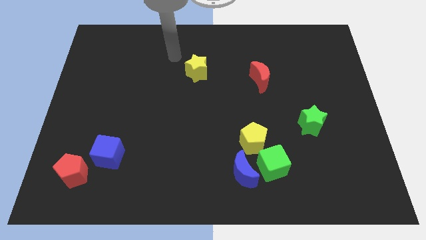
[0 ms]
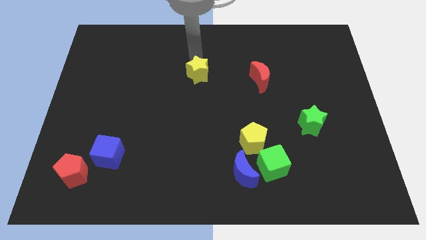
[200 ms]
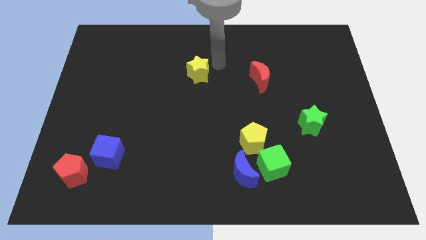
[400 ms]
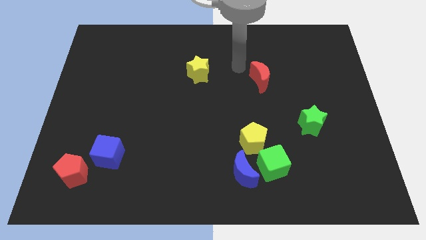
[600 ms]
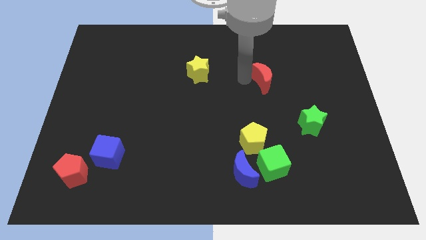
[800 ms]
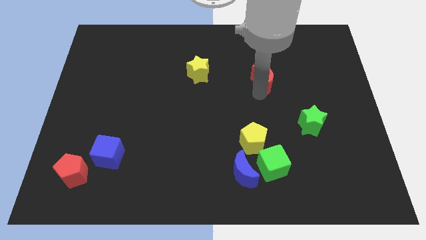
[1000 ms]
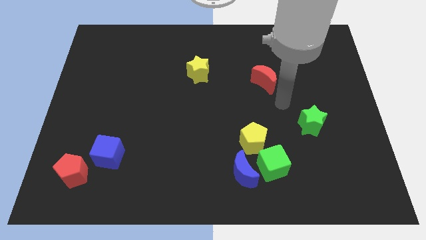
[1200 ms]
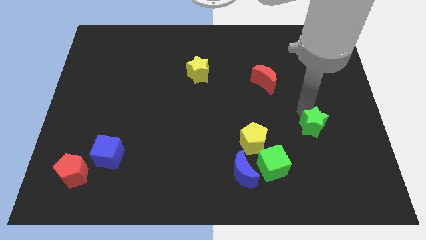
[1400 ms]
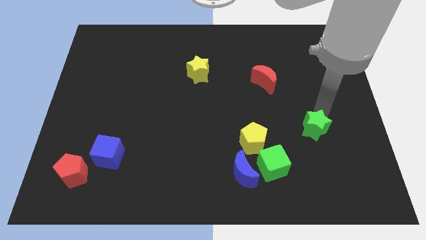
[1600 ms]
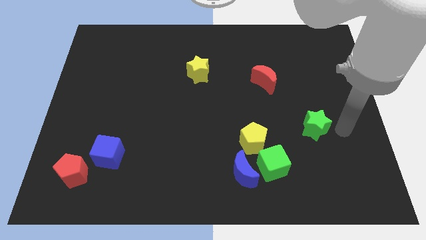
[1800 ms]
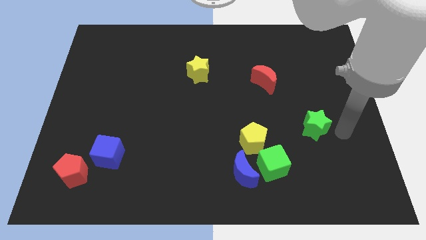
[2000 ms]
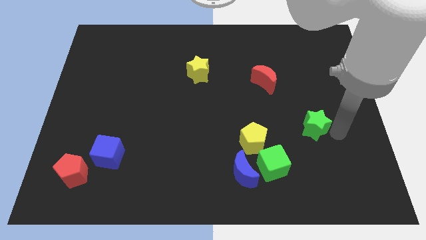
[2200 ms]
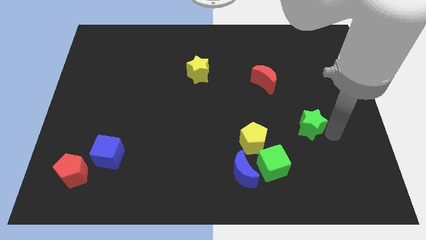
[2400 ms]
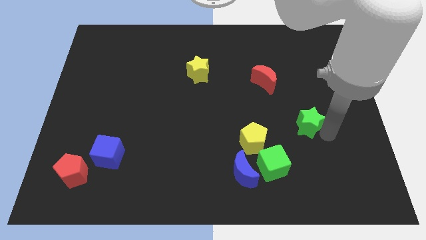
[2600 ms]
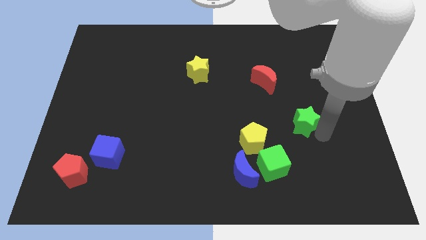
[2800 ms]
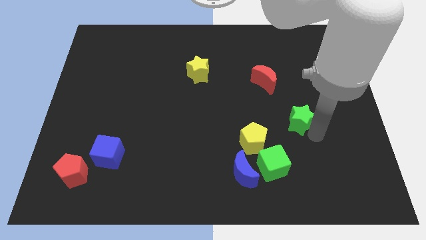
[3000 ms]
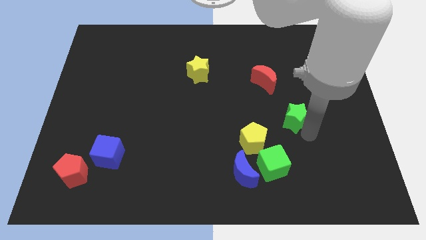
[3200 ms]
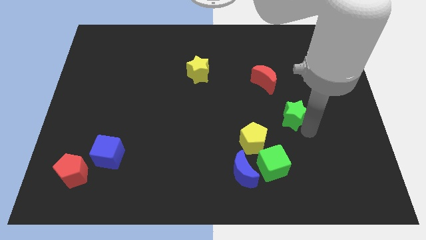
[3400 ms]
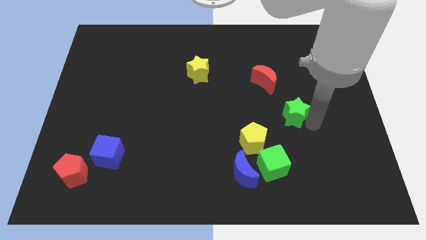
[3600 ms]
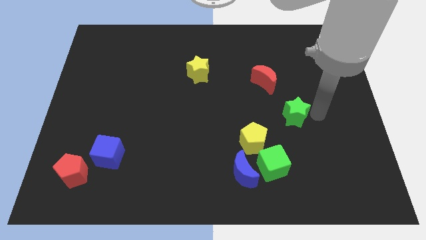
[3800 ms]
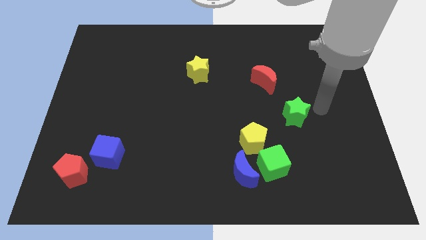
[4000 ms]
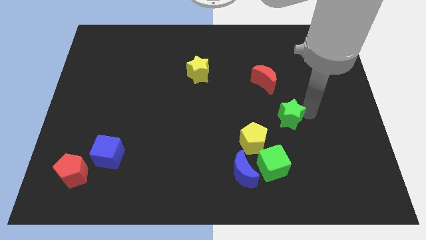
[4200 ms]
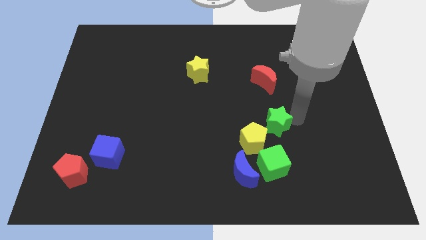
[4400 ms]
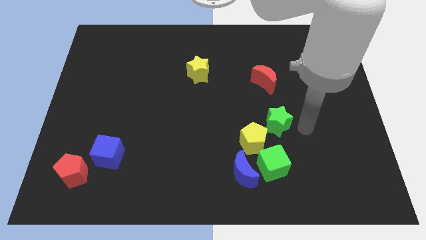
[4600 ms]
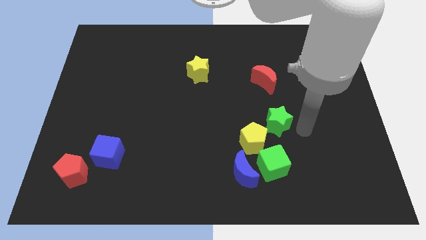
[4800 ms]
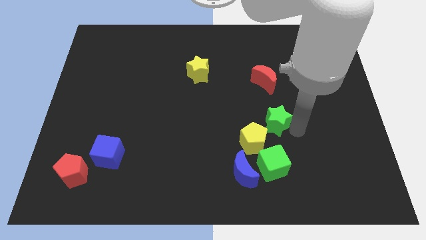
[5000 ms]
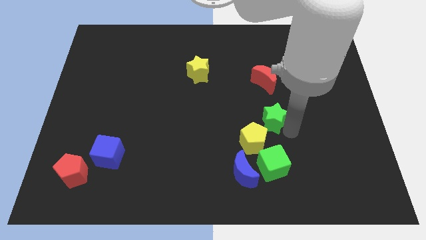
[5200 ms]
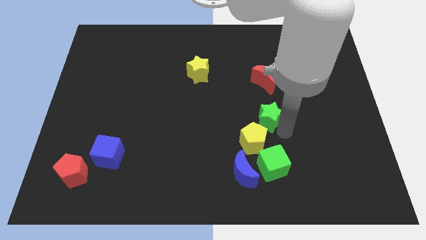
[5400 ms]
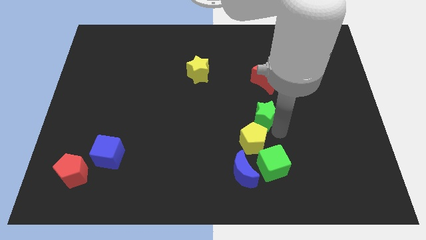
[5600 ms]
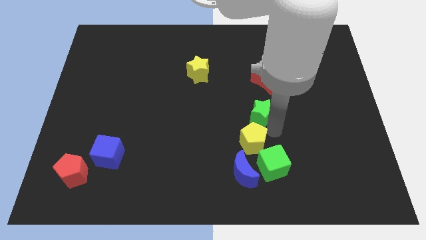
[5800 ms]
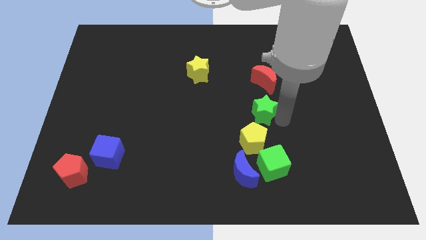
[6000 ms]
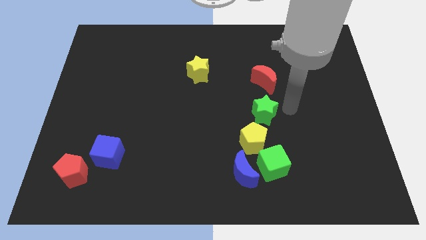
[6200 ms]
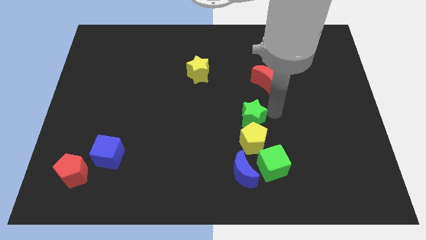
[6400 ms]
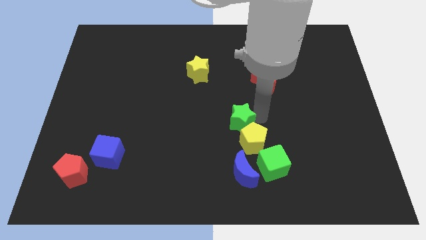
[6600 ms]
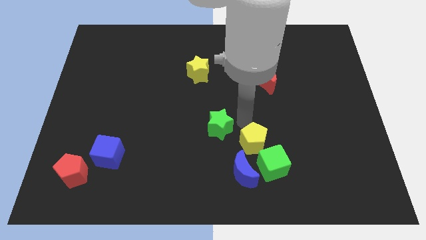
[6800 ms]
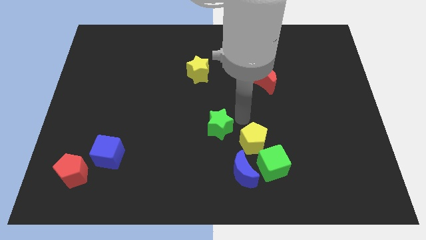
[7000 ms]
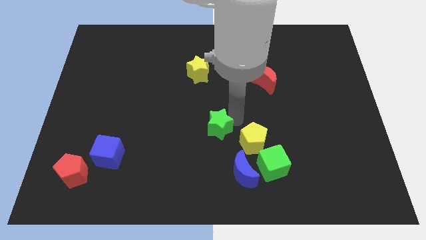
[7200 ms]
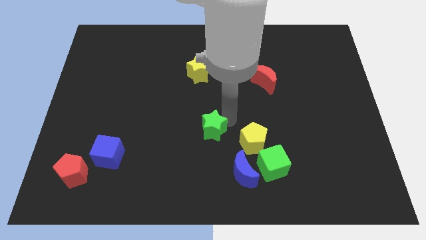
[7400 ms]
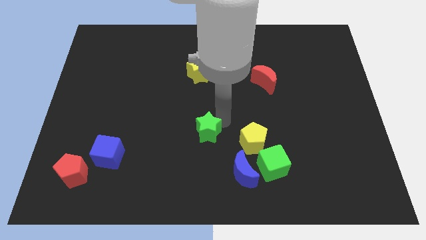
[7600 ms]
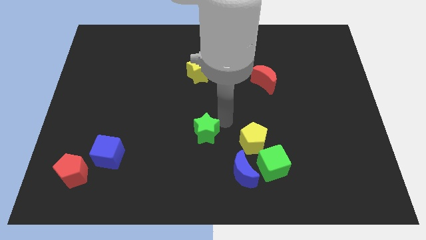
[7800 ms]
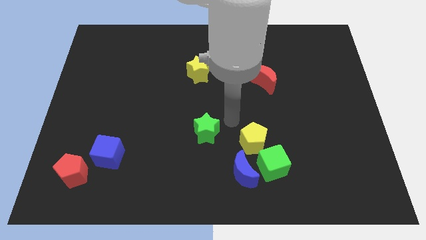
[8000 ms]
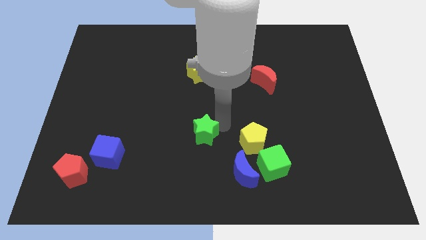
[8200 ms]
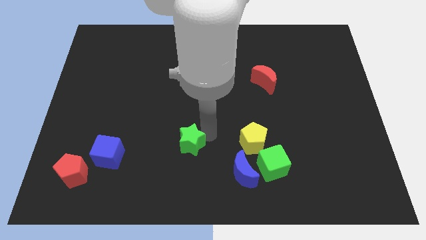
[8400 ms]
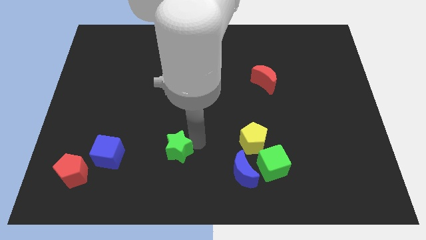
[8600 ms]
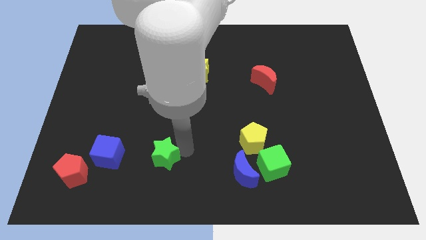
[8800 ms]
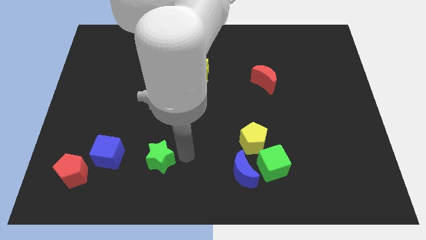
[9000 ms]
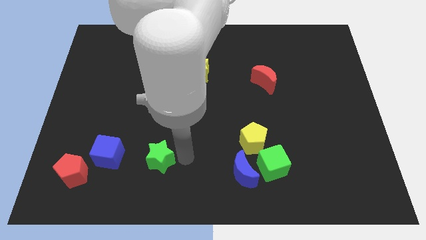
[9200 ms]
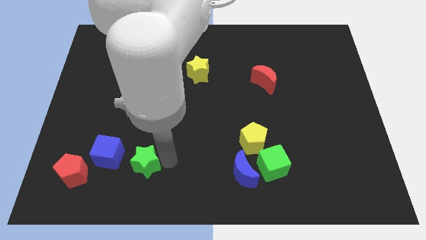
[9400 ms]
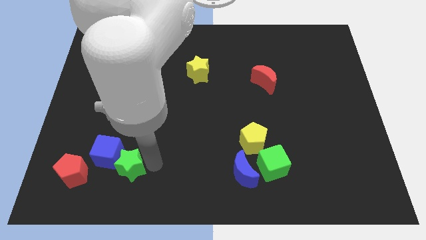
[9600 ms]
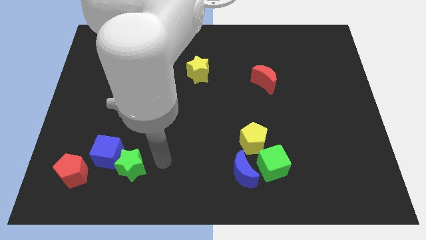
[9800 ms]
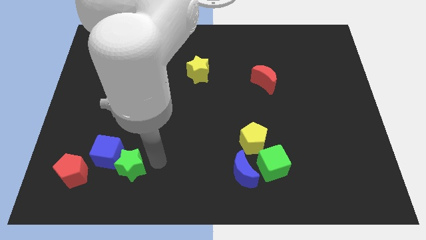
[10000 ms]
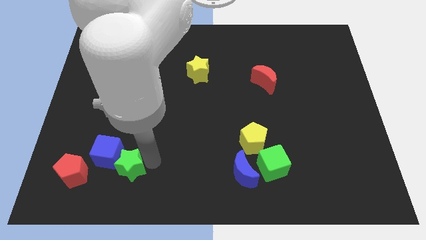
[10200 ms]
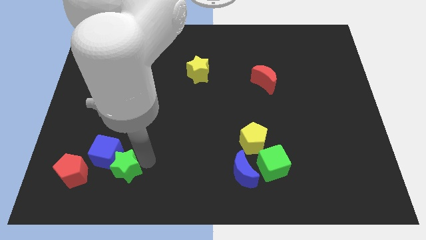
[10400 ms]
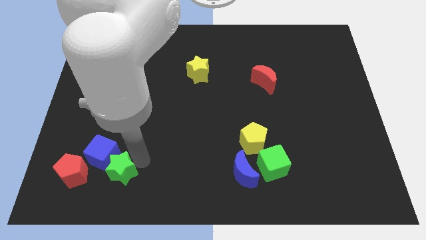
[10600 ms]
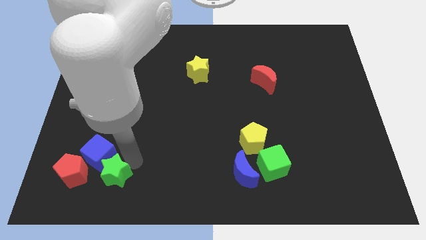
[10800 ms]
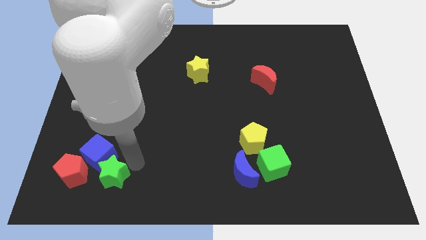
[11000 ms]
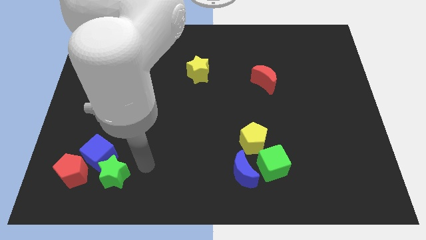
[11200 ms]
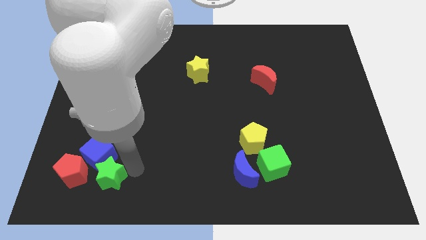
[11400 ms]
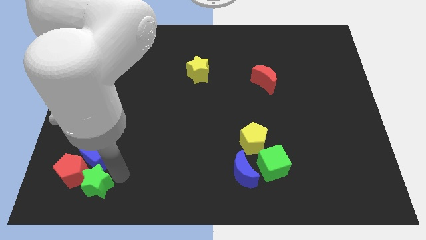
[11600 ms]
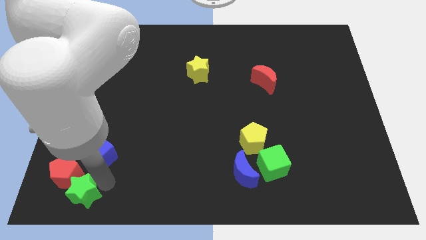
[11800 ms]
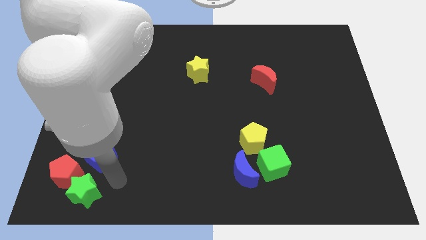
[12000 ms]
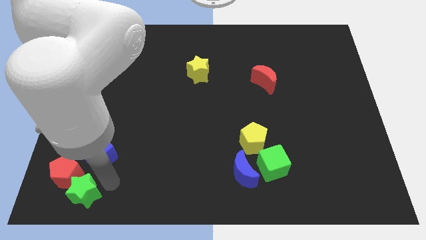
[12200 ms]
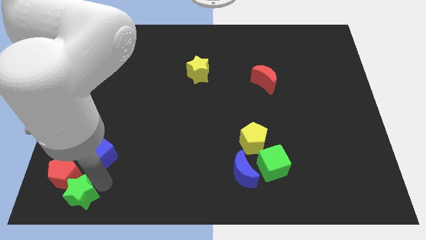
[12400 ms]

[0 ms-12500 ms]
slide the green star to the lower left corner

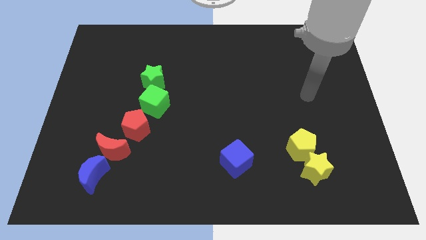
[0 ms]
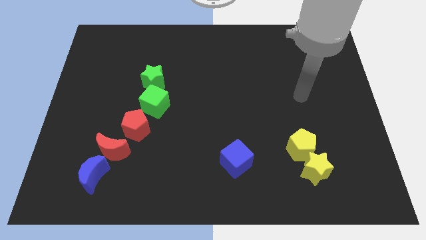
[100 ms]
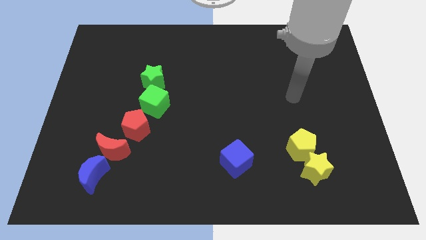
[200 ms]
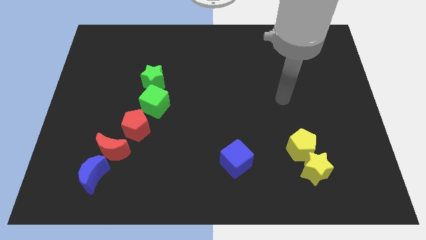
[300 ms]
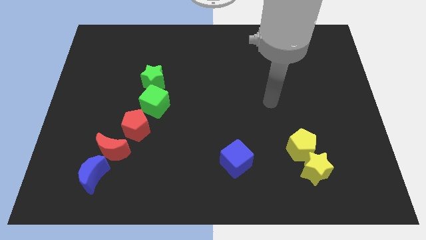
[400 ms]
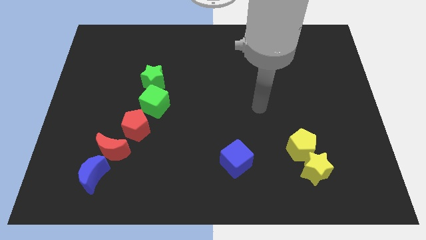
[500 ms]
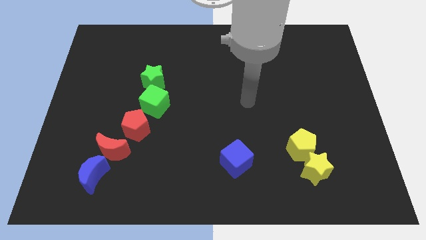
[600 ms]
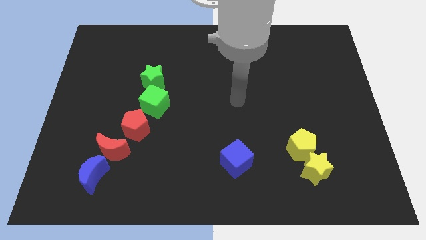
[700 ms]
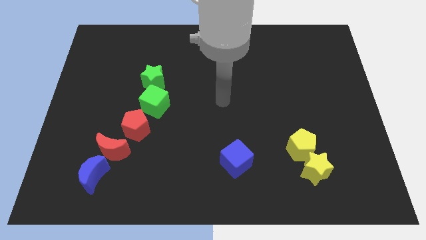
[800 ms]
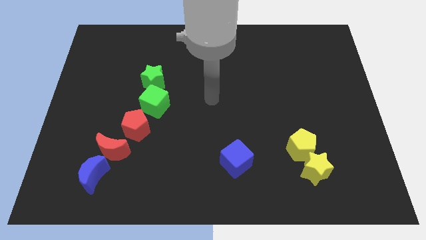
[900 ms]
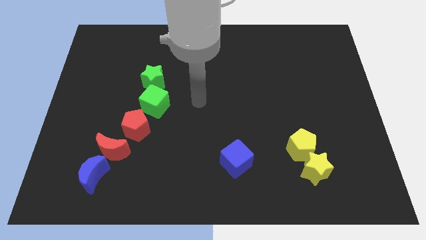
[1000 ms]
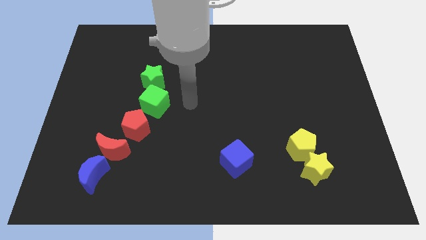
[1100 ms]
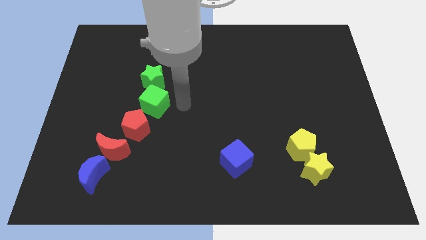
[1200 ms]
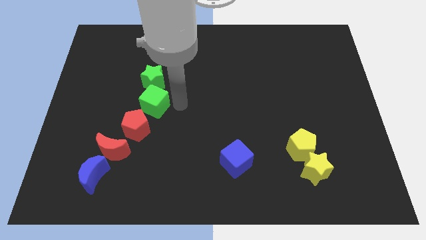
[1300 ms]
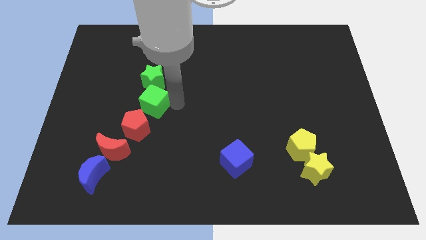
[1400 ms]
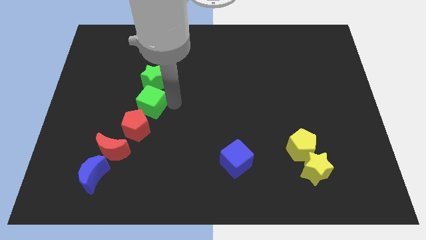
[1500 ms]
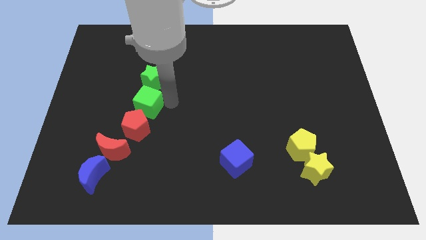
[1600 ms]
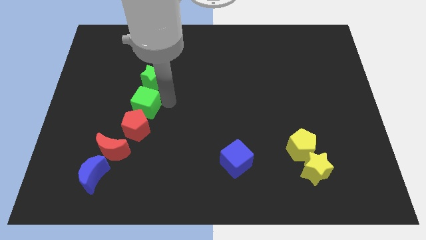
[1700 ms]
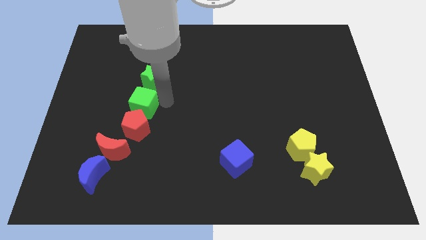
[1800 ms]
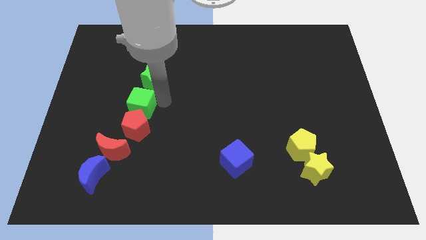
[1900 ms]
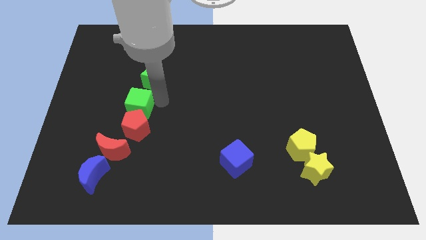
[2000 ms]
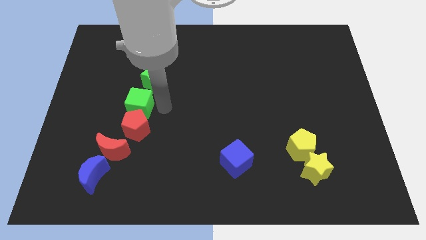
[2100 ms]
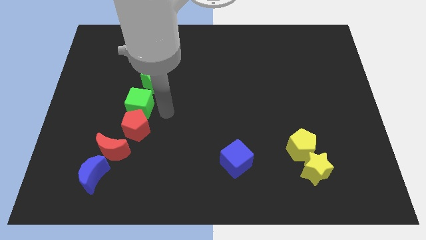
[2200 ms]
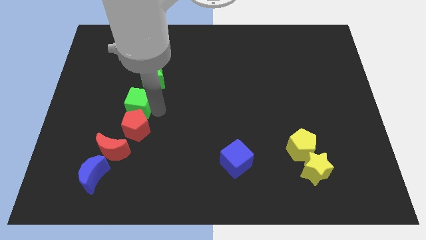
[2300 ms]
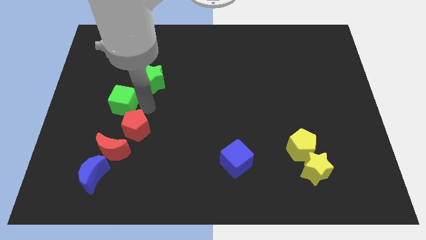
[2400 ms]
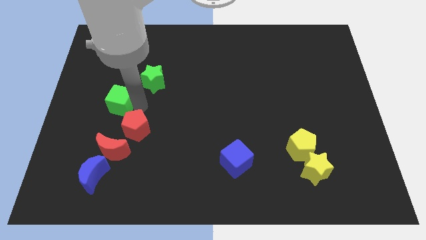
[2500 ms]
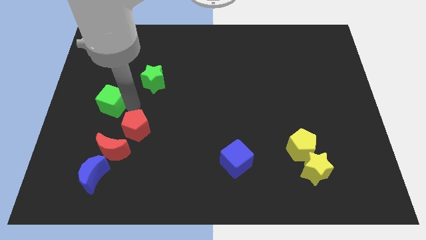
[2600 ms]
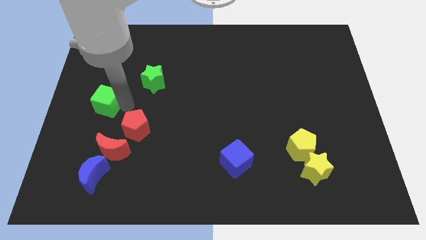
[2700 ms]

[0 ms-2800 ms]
push the green cube to the left side
